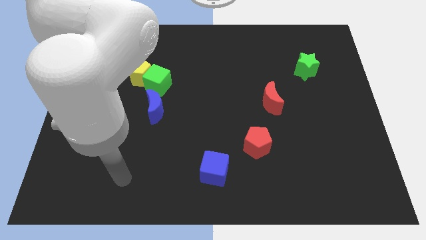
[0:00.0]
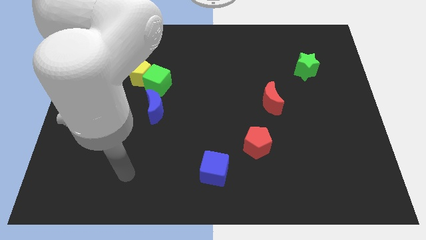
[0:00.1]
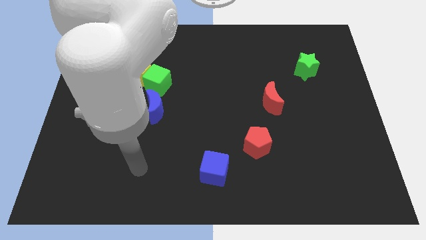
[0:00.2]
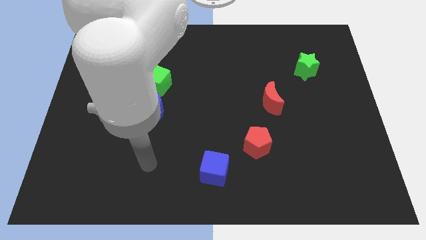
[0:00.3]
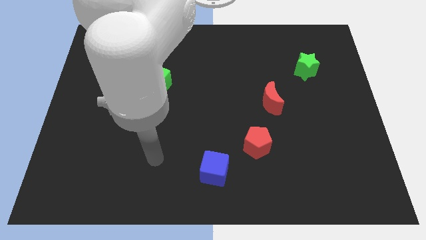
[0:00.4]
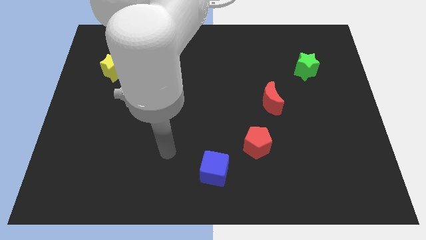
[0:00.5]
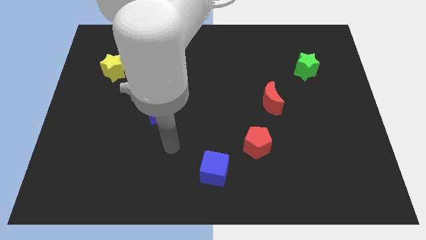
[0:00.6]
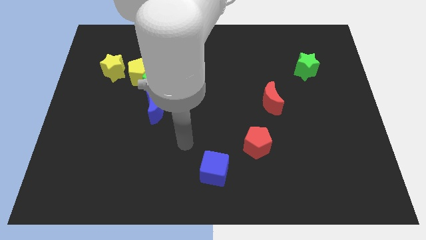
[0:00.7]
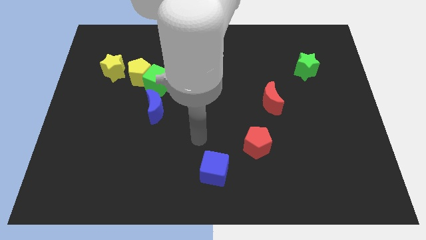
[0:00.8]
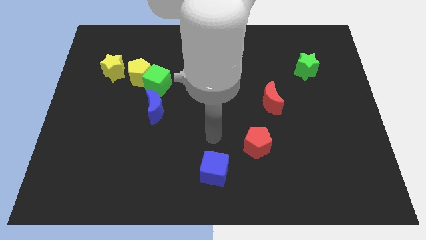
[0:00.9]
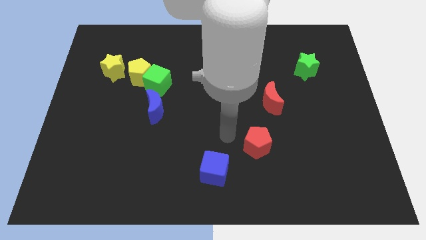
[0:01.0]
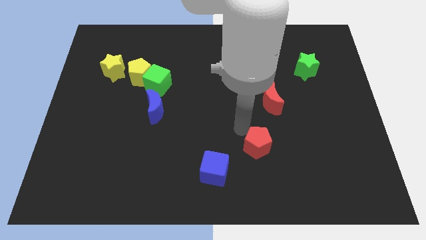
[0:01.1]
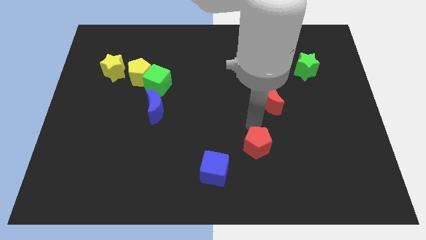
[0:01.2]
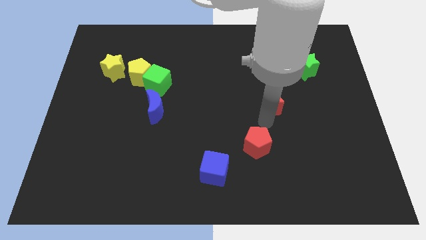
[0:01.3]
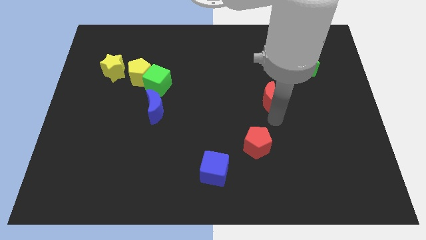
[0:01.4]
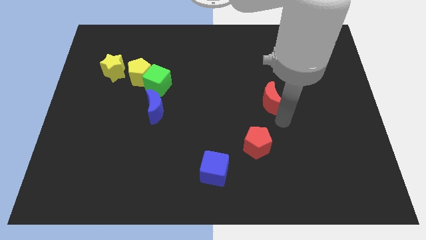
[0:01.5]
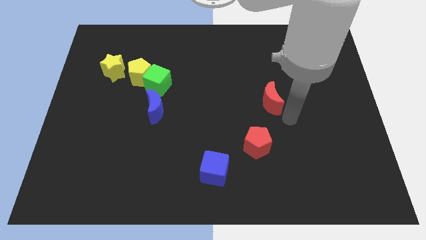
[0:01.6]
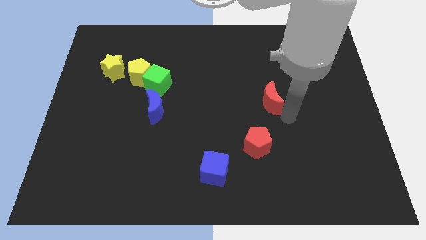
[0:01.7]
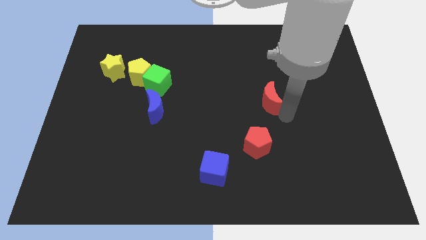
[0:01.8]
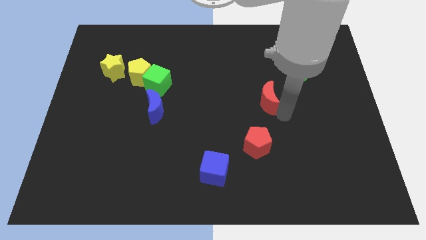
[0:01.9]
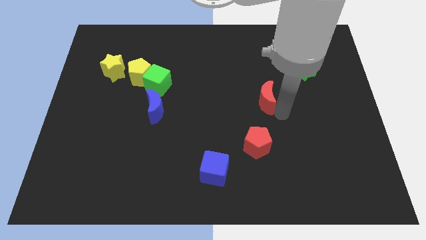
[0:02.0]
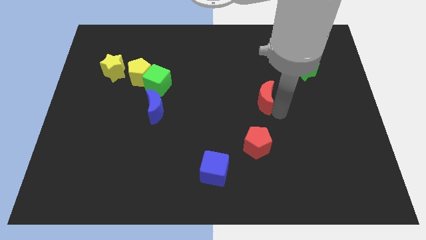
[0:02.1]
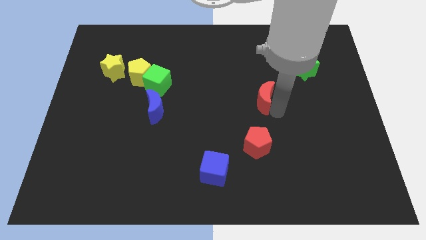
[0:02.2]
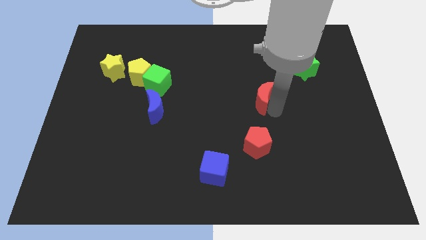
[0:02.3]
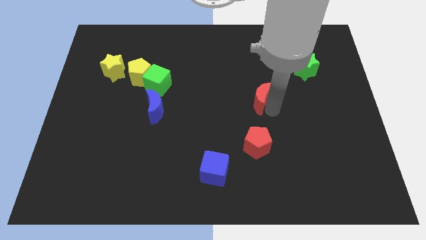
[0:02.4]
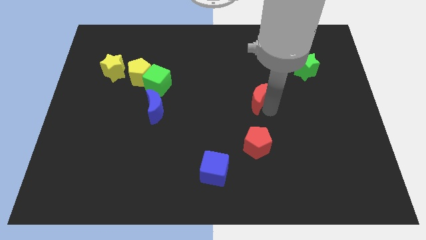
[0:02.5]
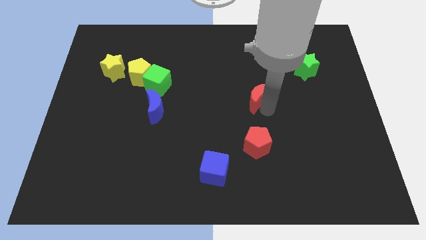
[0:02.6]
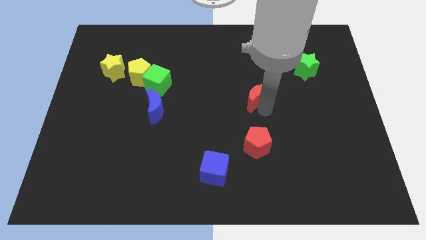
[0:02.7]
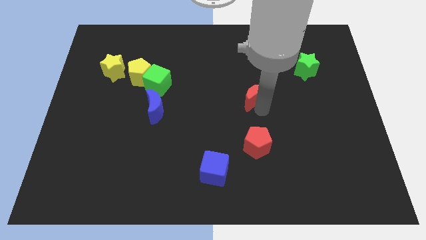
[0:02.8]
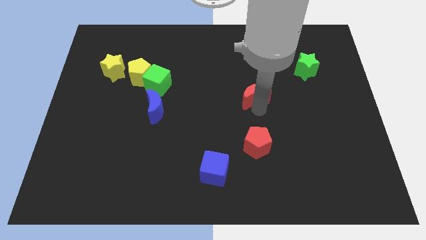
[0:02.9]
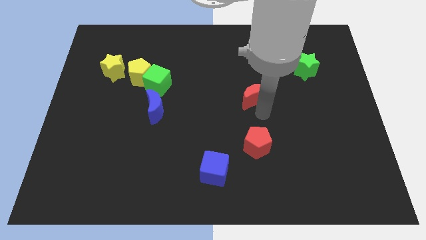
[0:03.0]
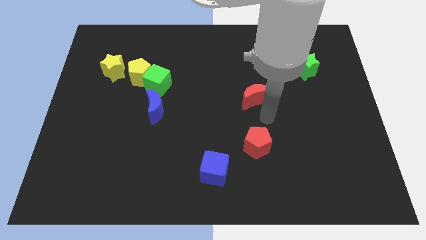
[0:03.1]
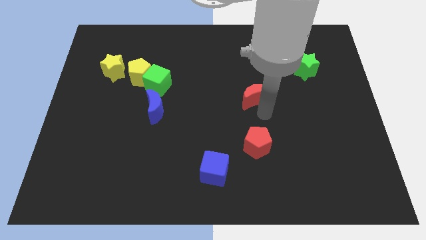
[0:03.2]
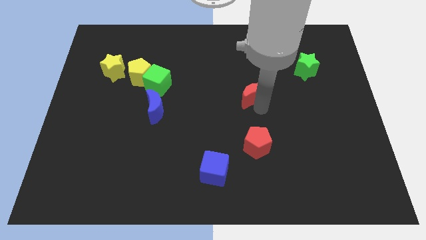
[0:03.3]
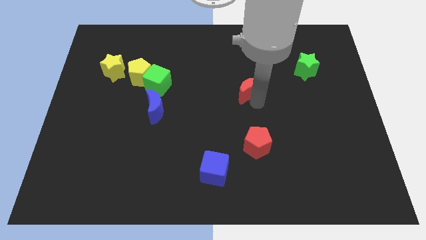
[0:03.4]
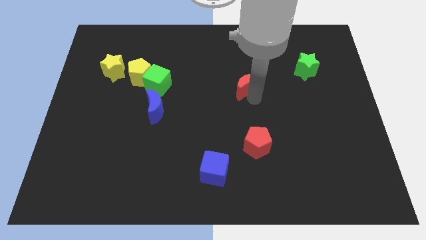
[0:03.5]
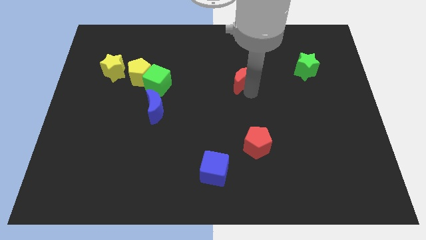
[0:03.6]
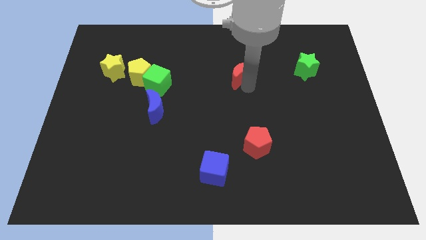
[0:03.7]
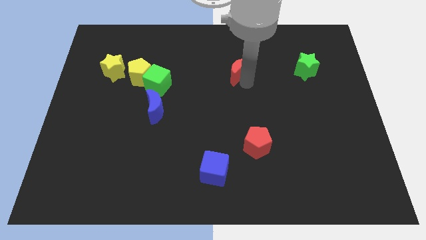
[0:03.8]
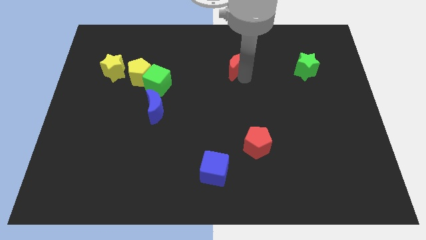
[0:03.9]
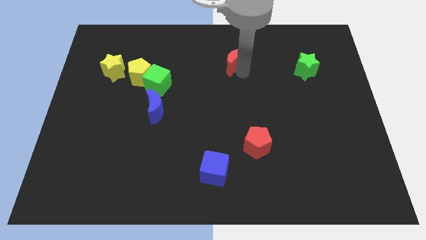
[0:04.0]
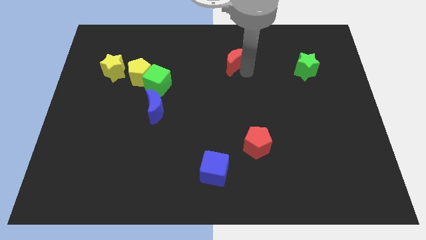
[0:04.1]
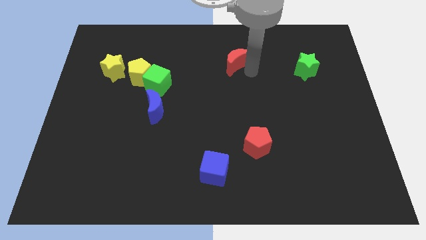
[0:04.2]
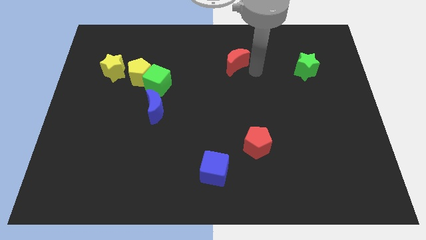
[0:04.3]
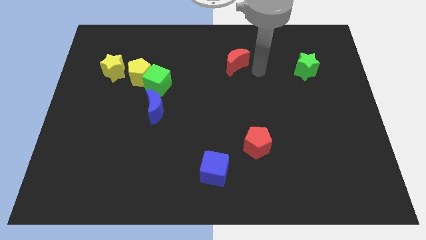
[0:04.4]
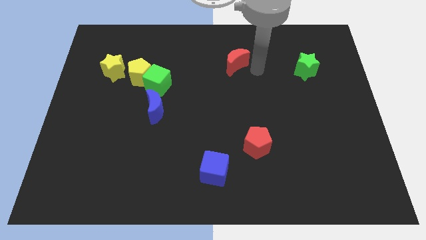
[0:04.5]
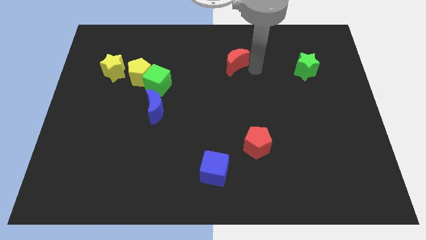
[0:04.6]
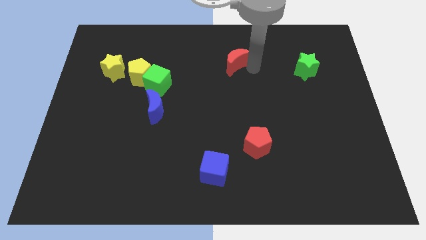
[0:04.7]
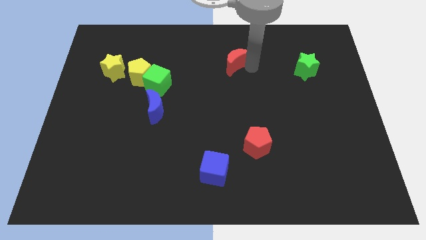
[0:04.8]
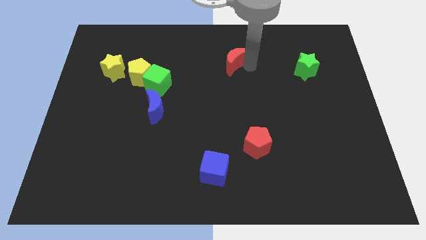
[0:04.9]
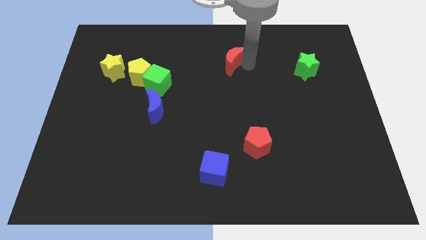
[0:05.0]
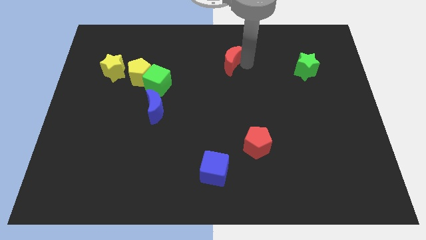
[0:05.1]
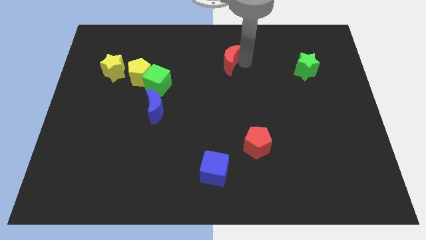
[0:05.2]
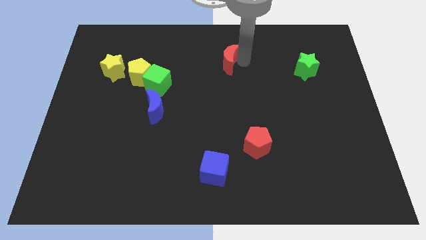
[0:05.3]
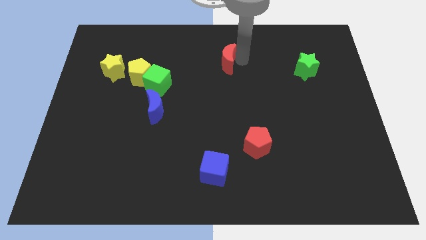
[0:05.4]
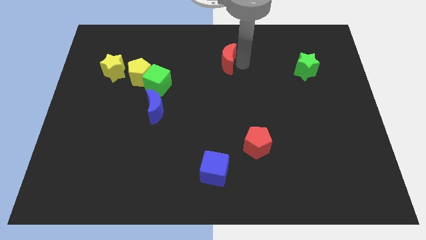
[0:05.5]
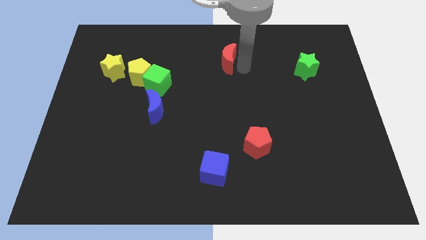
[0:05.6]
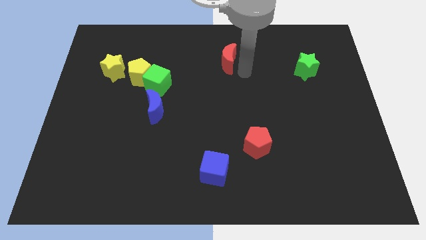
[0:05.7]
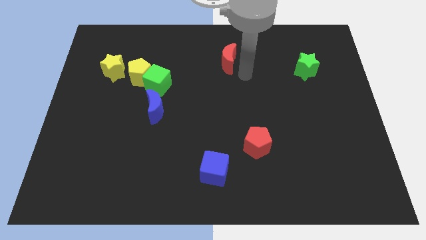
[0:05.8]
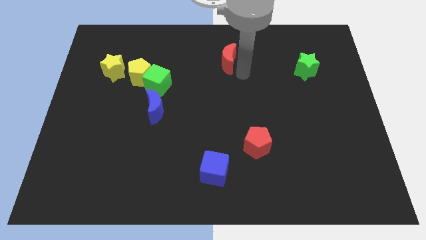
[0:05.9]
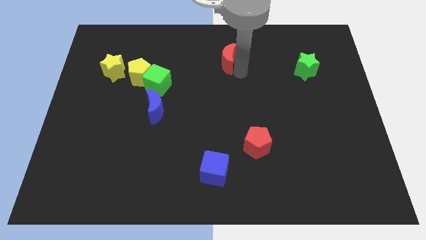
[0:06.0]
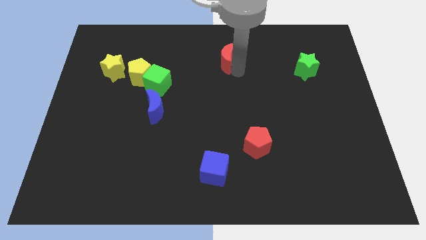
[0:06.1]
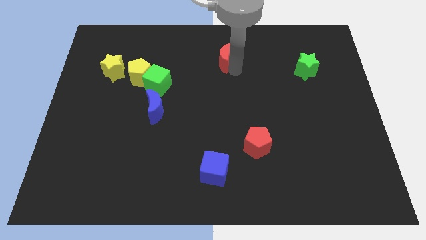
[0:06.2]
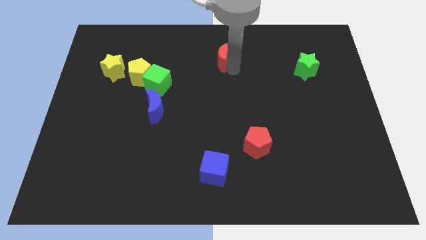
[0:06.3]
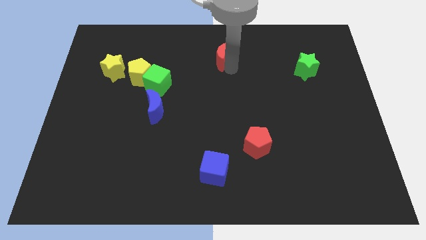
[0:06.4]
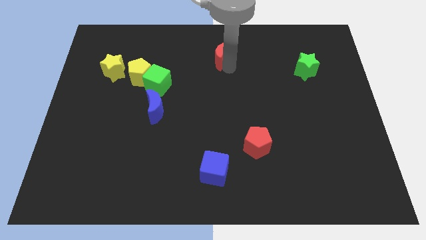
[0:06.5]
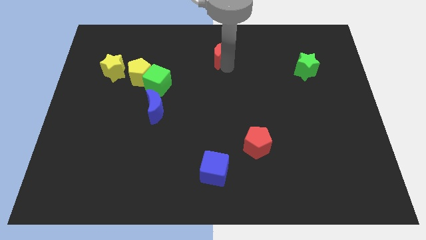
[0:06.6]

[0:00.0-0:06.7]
push the red moon to the towards your base

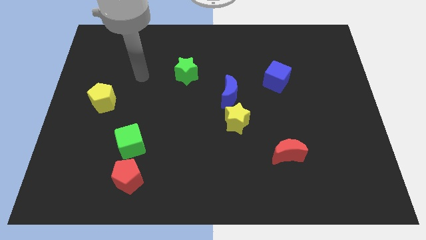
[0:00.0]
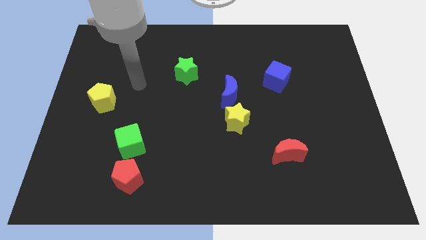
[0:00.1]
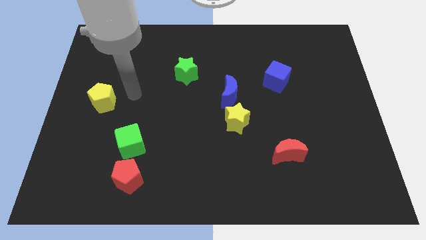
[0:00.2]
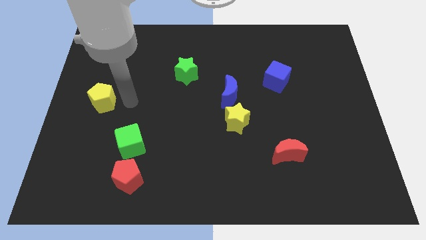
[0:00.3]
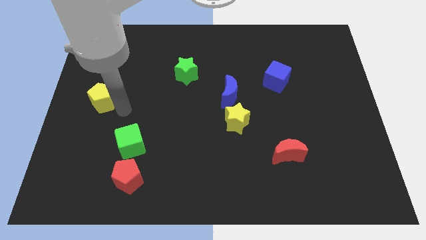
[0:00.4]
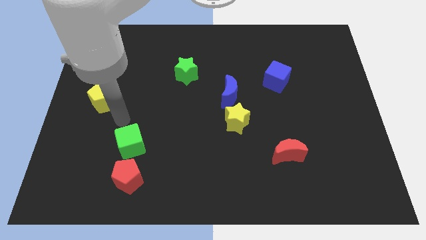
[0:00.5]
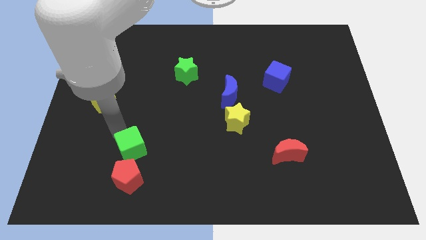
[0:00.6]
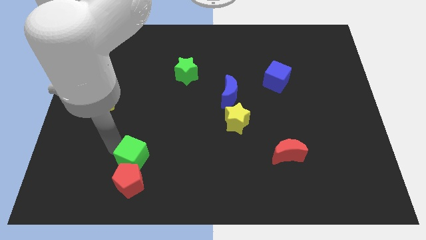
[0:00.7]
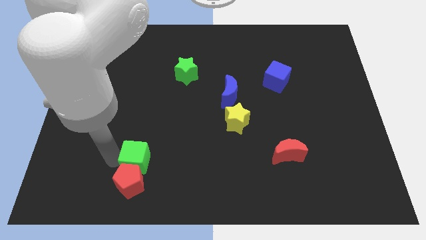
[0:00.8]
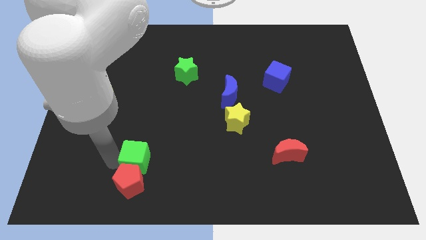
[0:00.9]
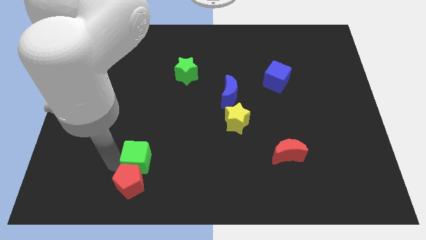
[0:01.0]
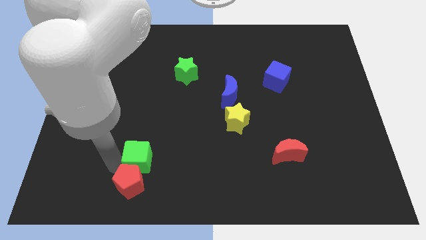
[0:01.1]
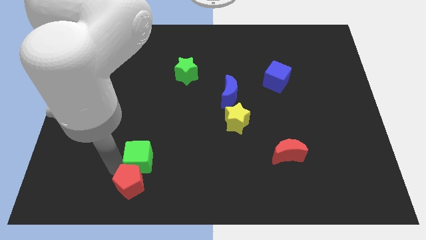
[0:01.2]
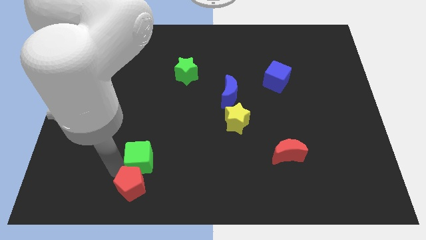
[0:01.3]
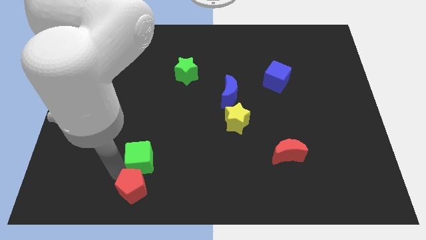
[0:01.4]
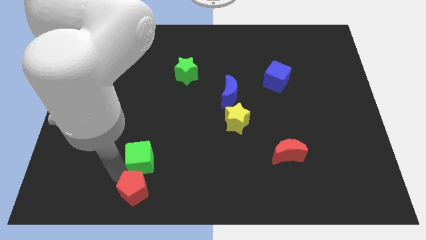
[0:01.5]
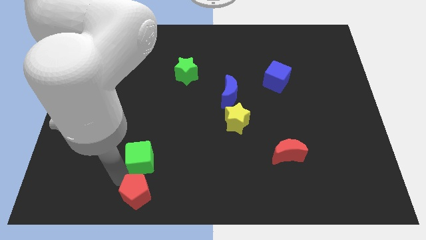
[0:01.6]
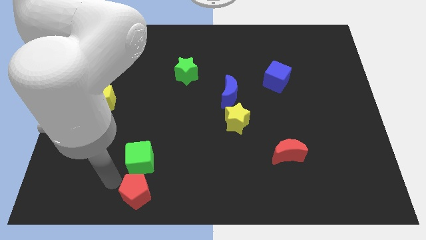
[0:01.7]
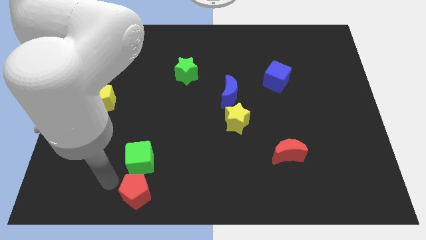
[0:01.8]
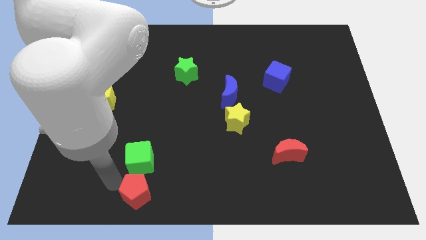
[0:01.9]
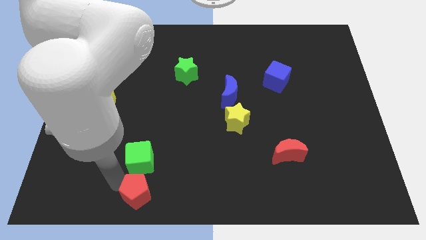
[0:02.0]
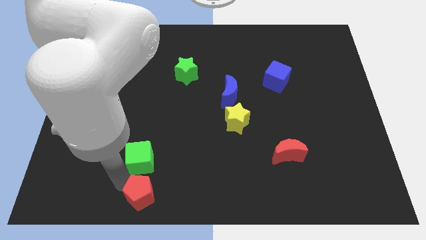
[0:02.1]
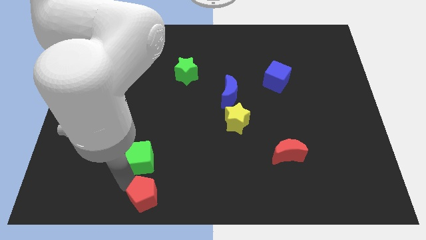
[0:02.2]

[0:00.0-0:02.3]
push the red pentagon to the bottom side
